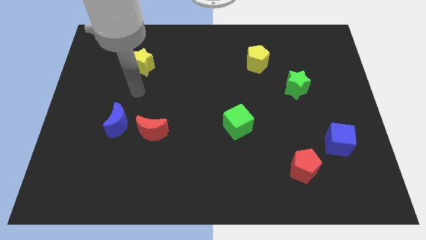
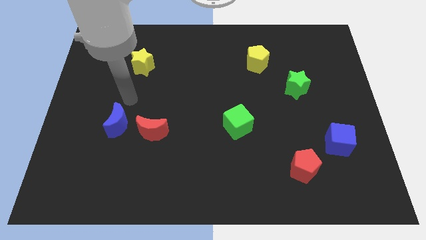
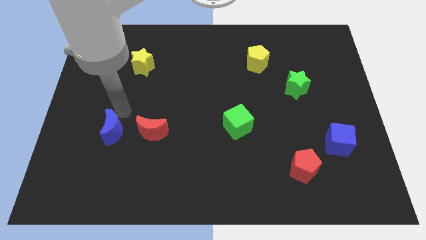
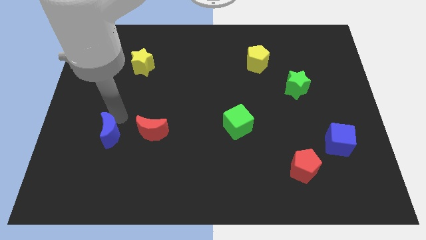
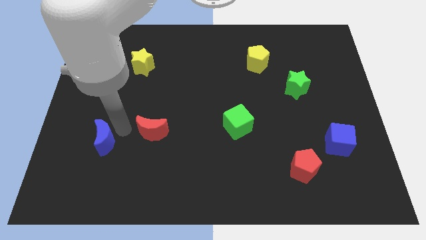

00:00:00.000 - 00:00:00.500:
pull the red moon apart from the blue moon

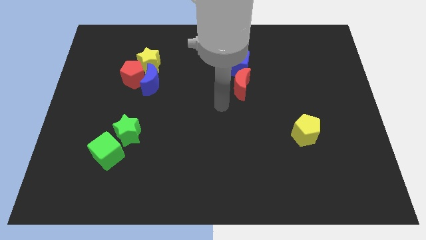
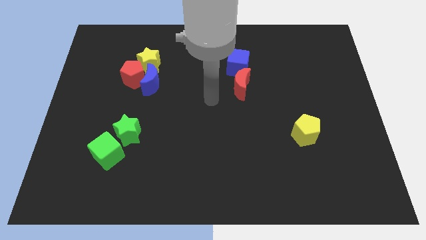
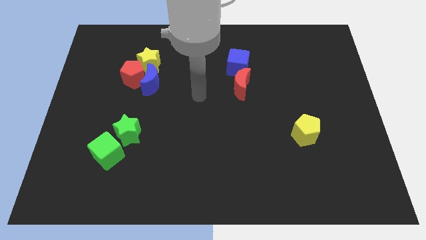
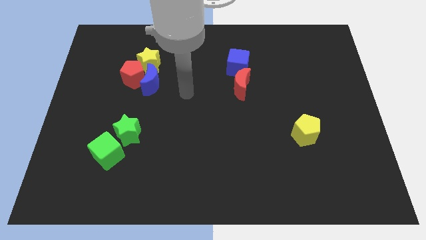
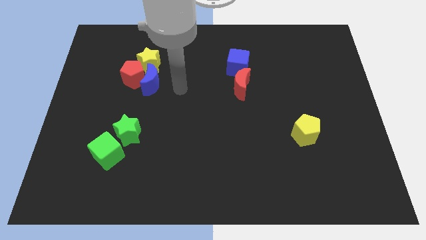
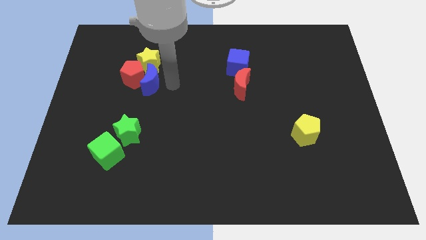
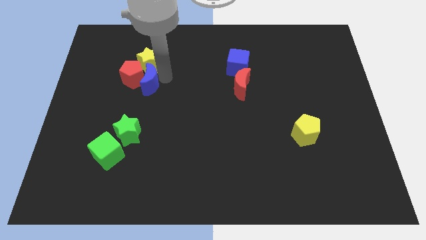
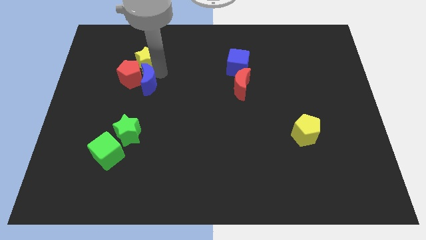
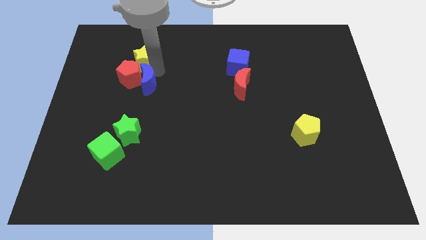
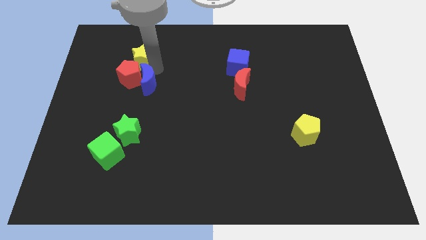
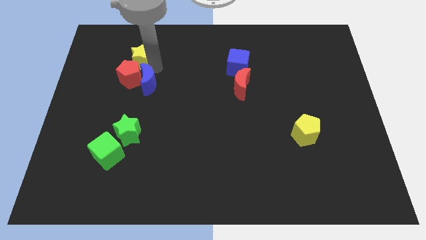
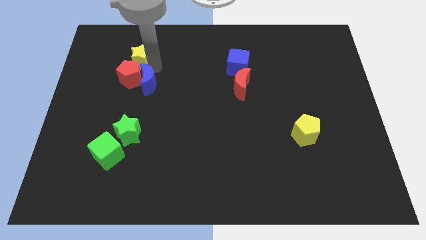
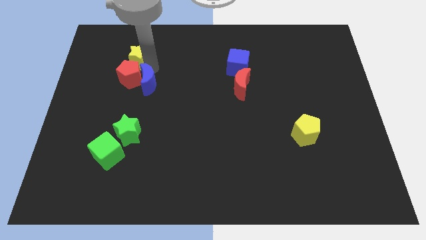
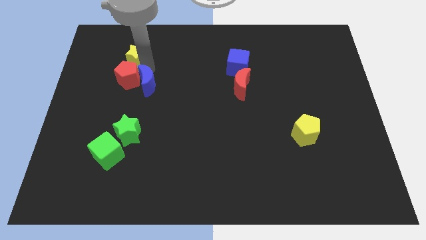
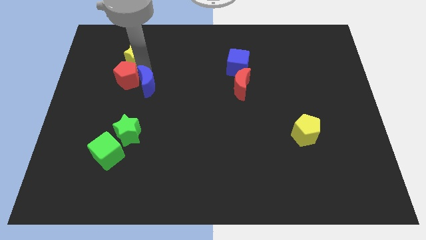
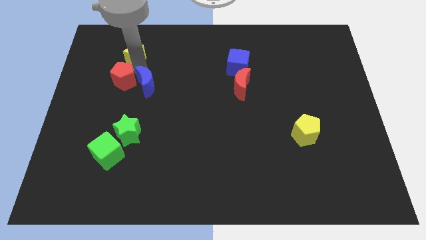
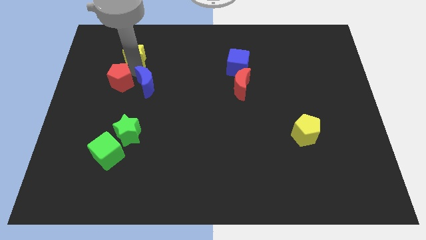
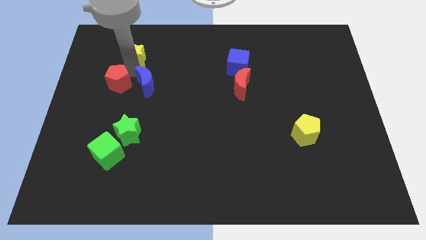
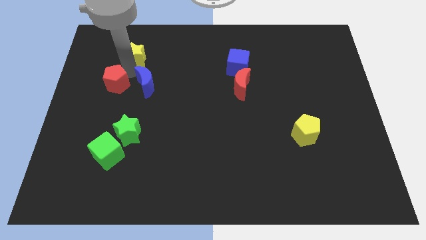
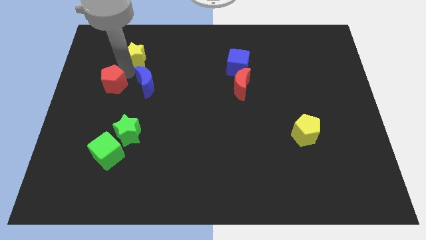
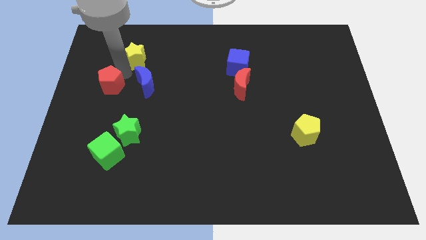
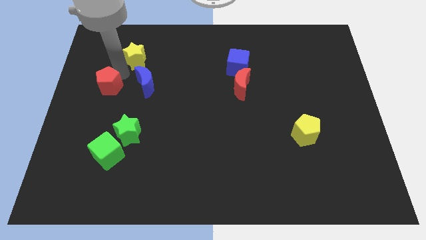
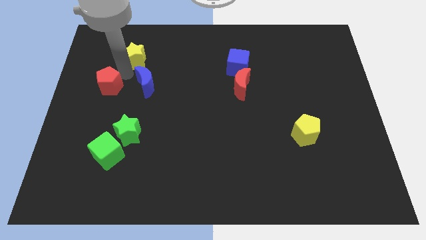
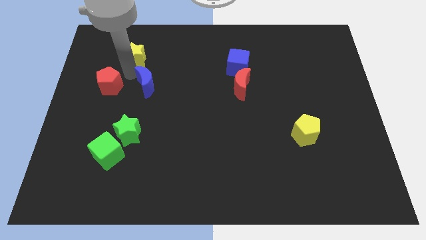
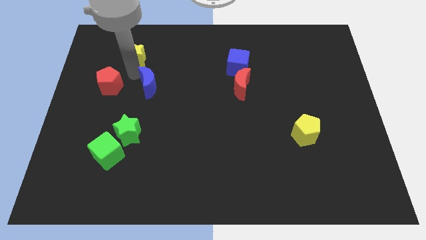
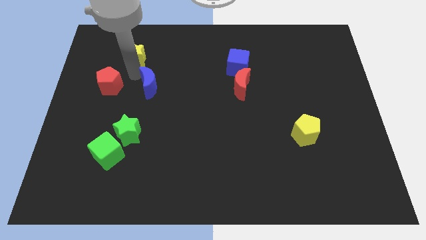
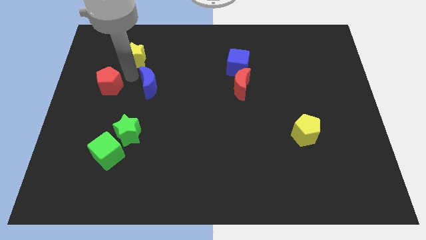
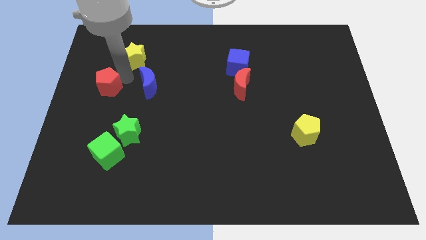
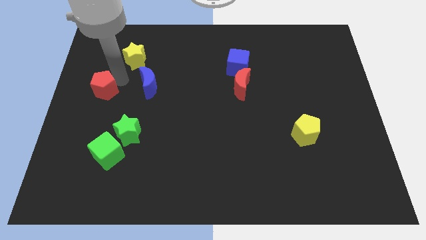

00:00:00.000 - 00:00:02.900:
move the red pentagon away from the blue moon and yellow star

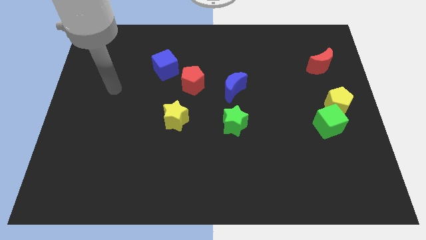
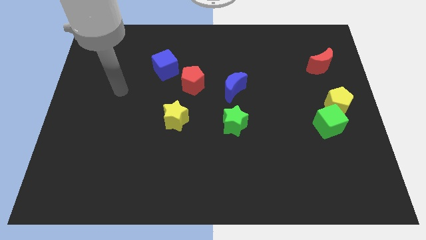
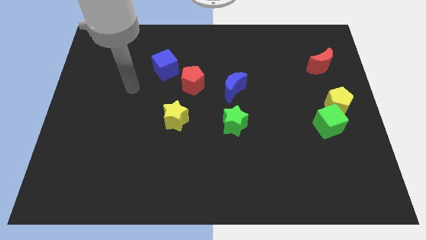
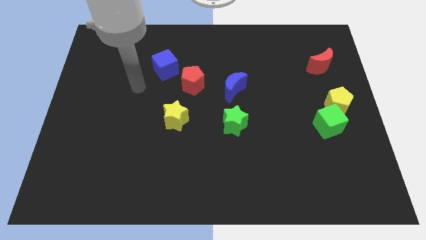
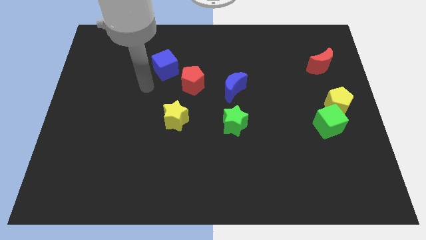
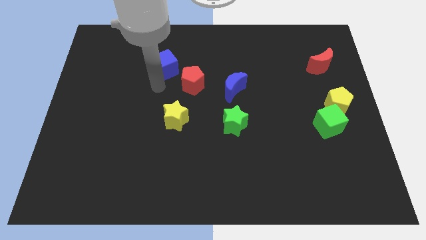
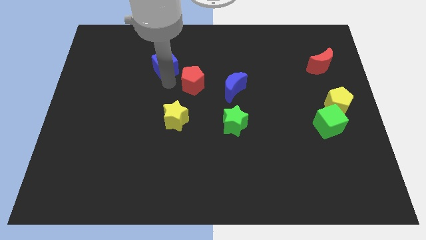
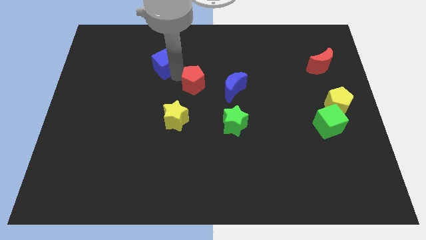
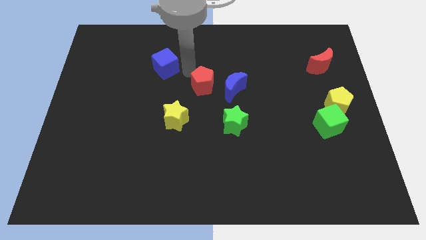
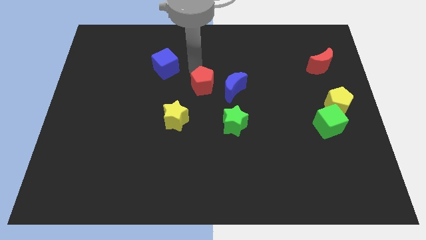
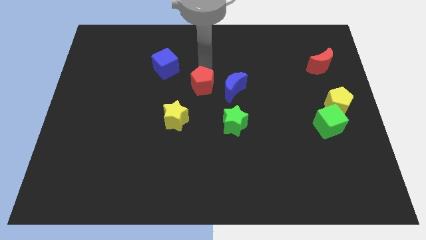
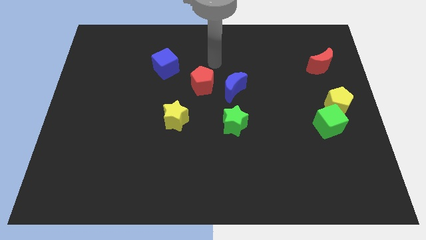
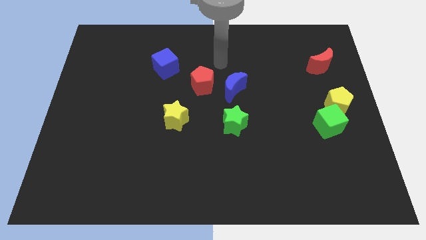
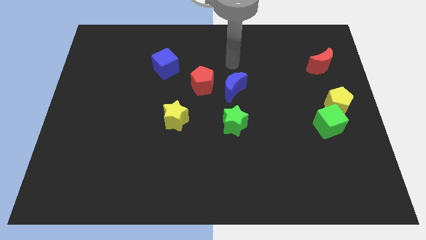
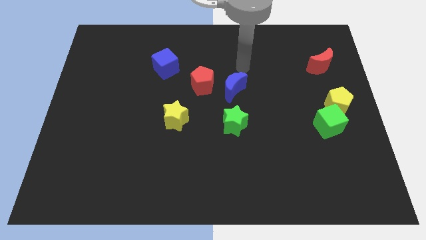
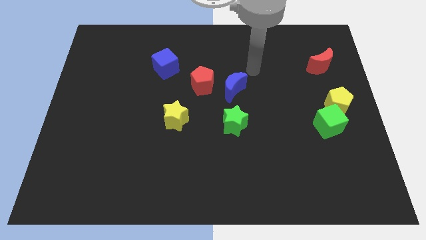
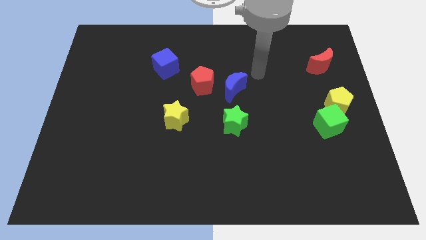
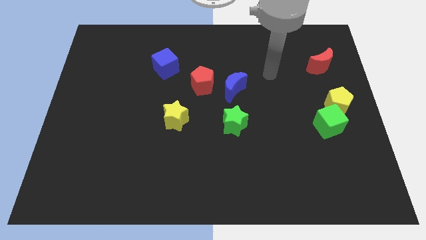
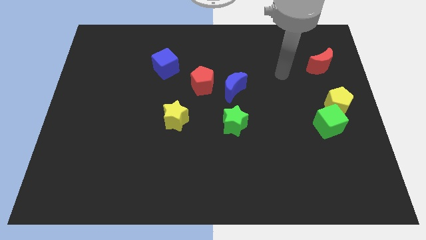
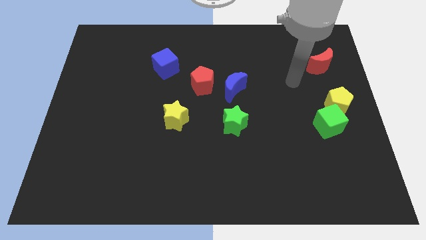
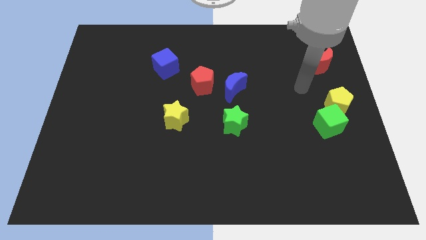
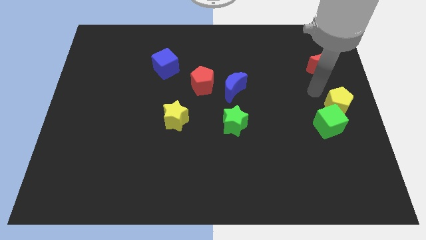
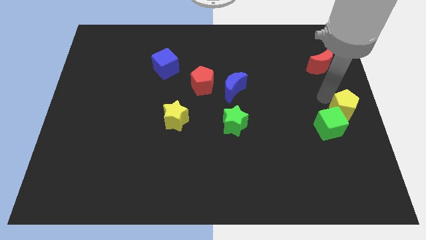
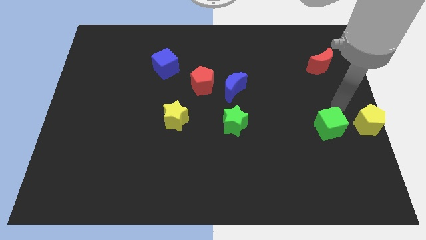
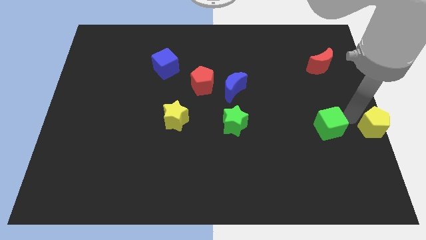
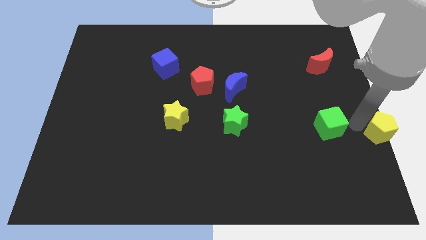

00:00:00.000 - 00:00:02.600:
pull the green cube apart from the yellow pentagon

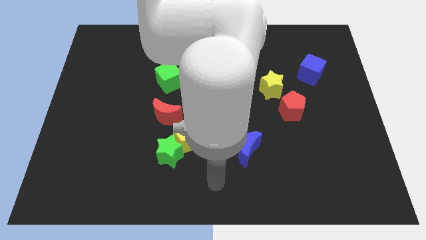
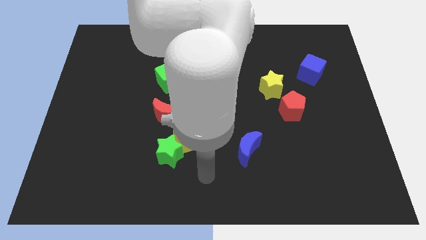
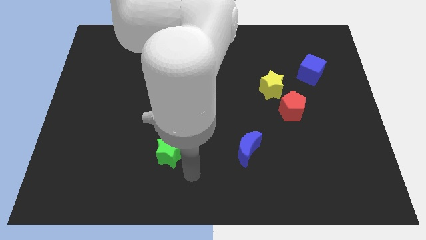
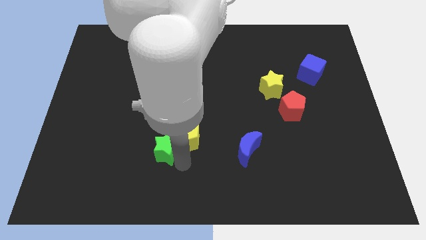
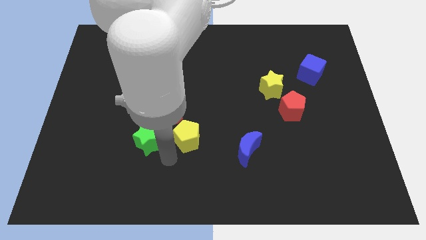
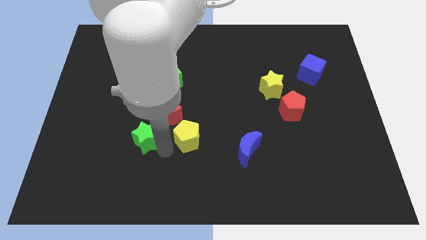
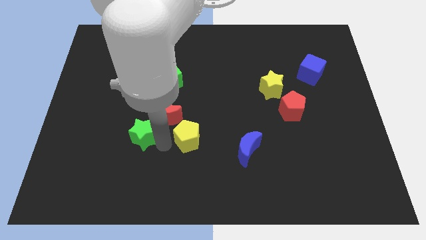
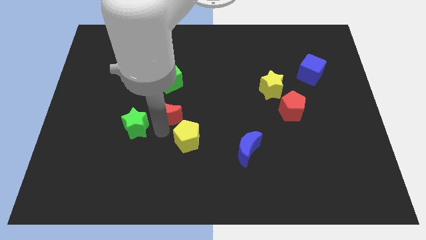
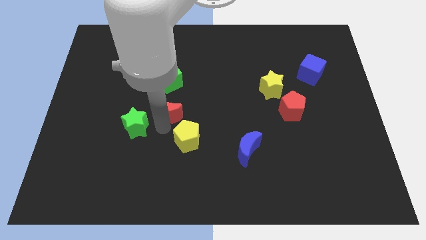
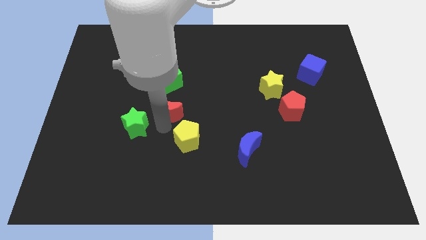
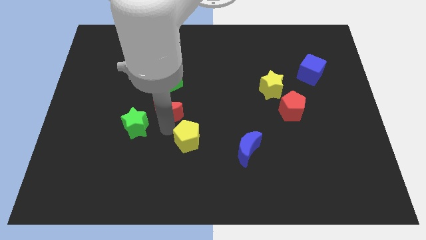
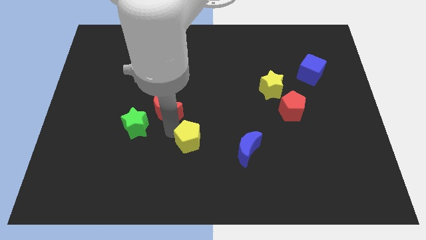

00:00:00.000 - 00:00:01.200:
pull the yellow pentagon apart from the green star and red moon

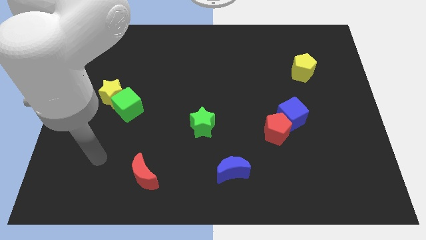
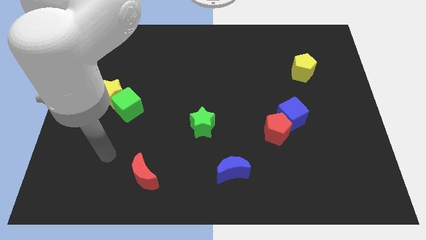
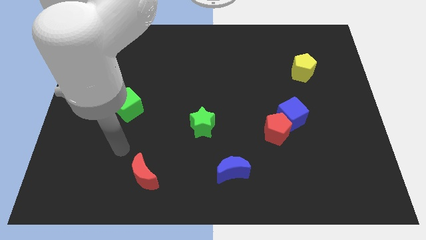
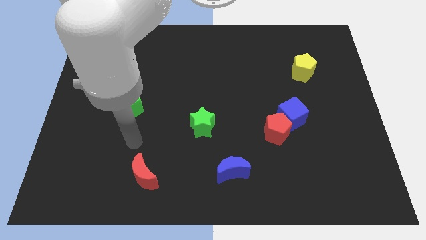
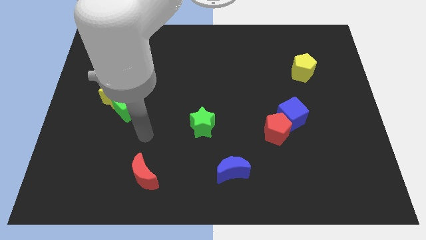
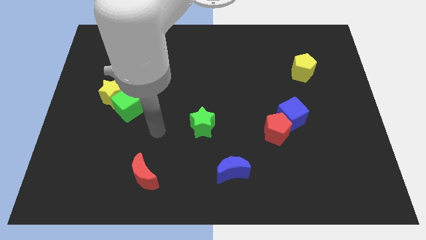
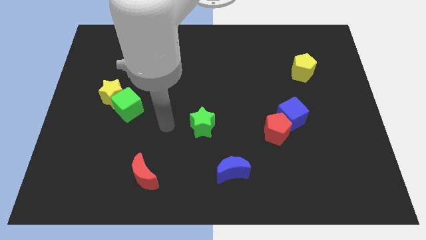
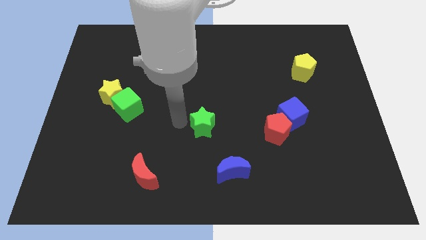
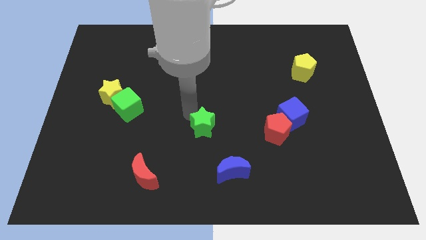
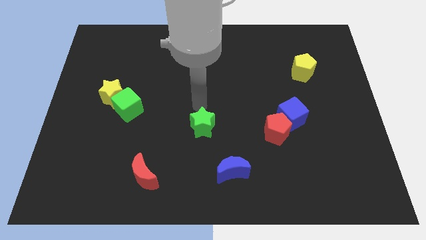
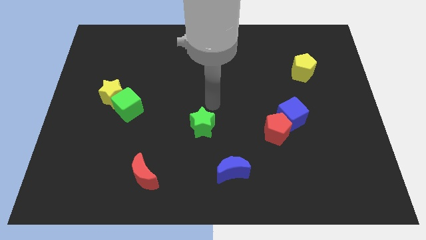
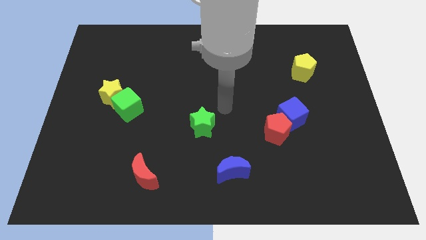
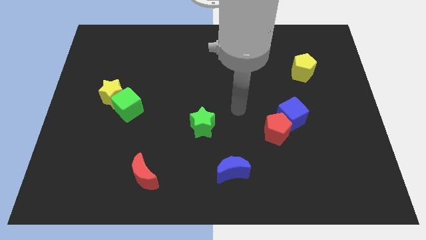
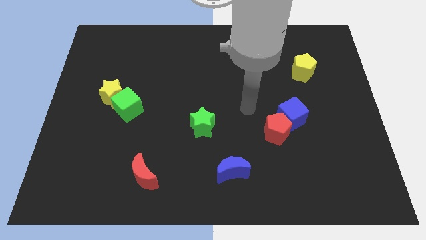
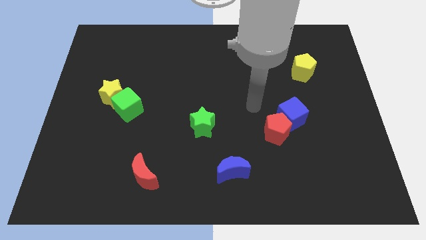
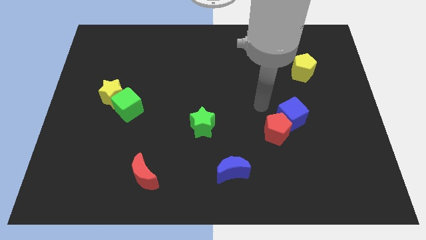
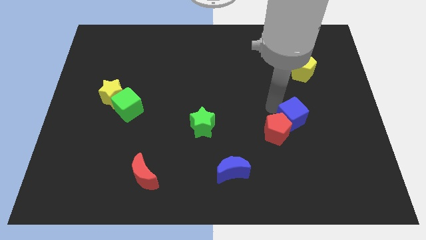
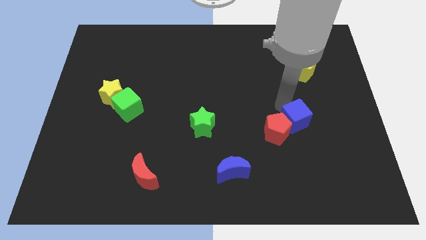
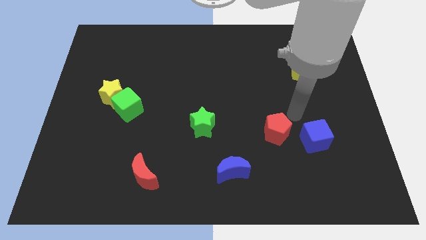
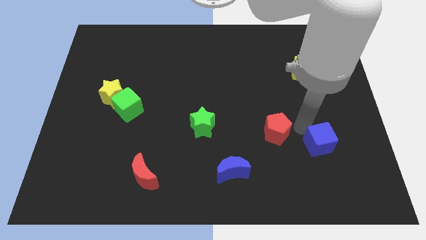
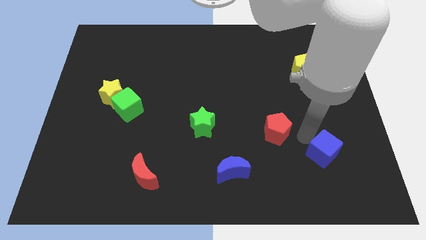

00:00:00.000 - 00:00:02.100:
move the red pentagon away from the blue cube
